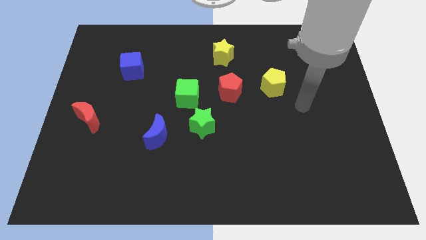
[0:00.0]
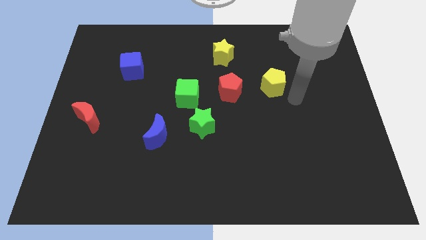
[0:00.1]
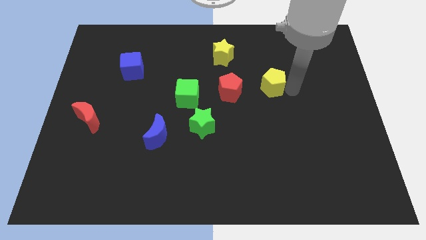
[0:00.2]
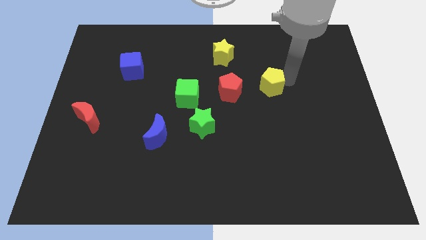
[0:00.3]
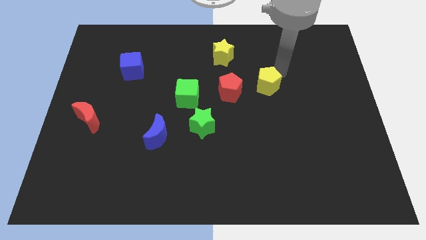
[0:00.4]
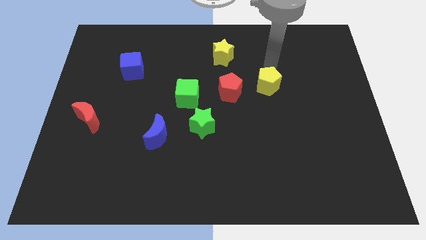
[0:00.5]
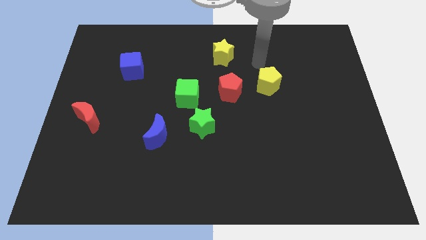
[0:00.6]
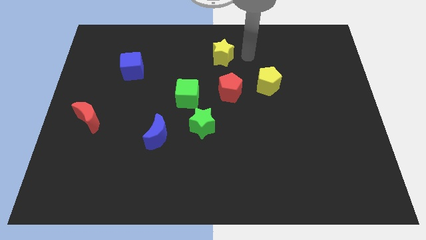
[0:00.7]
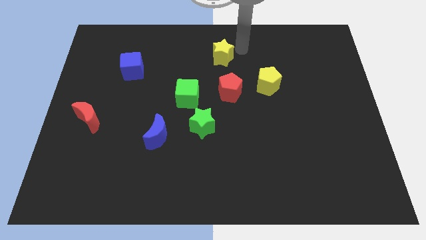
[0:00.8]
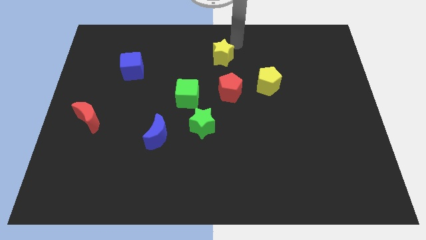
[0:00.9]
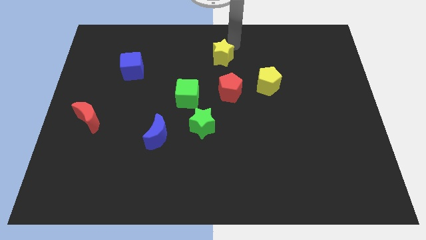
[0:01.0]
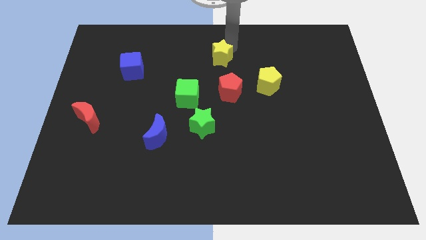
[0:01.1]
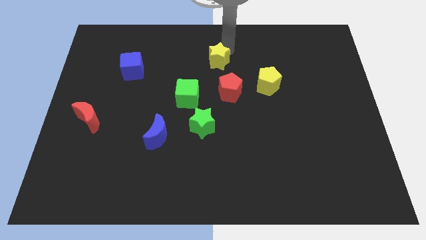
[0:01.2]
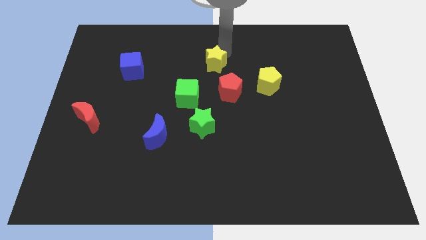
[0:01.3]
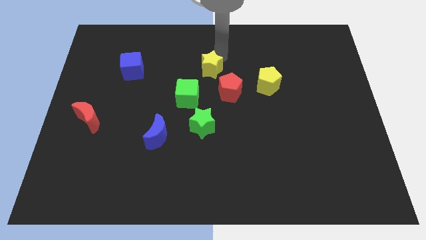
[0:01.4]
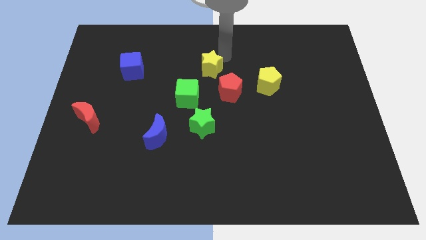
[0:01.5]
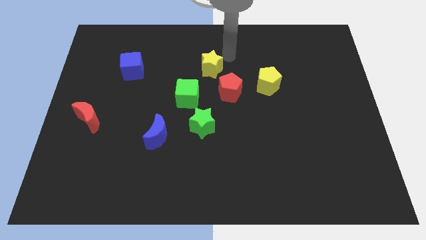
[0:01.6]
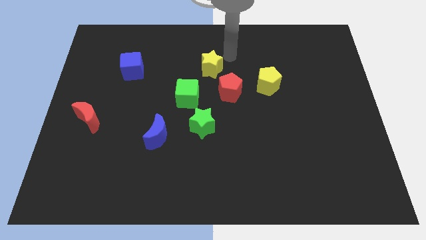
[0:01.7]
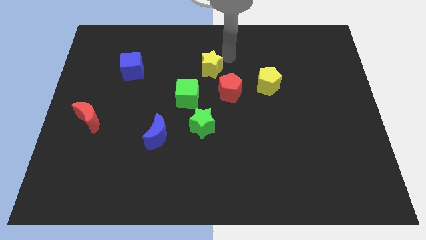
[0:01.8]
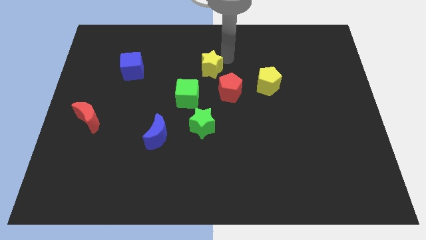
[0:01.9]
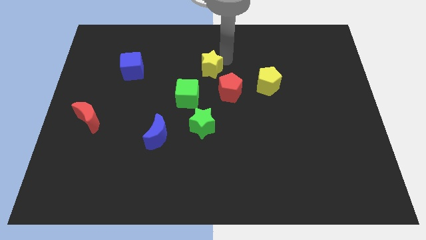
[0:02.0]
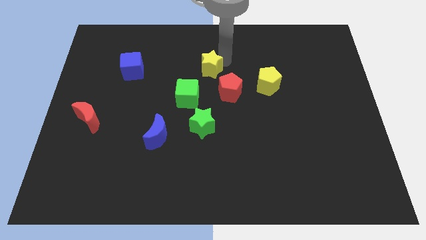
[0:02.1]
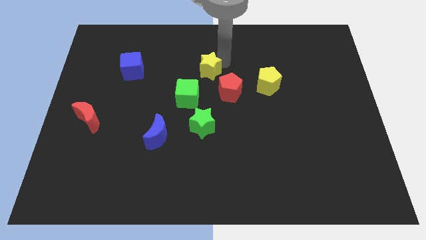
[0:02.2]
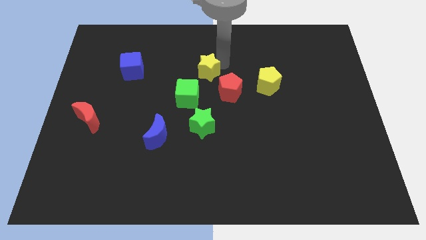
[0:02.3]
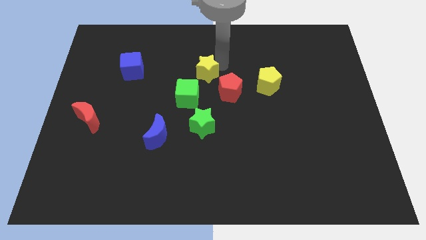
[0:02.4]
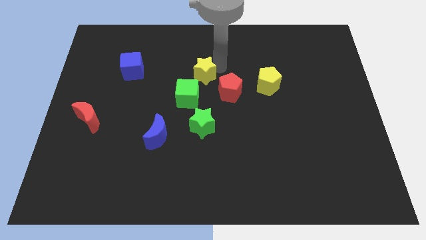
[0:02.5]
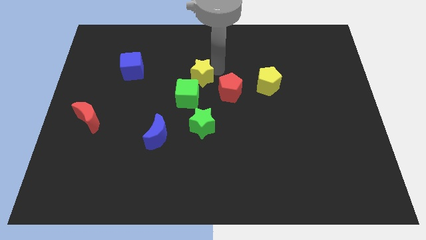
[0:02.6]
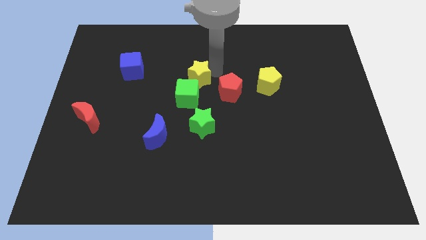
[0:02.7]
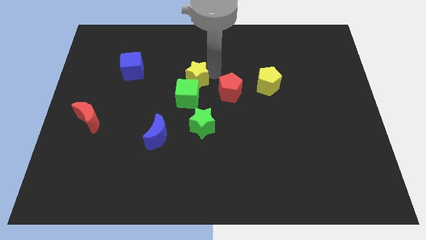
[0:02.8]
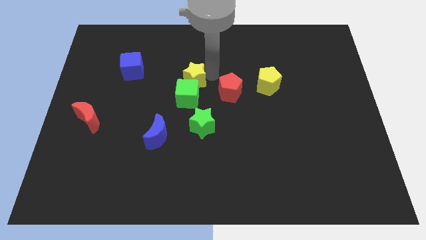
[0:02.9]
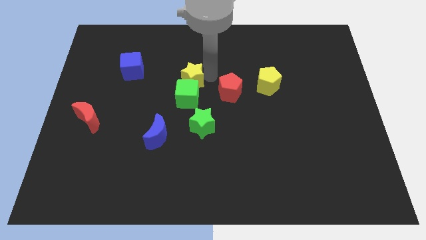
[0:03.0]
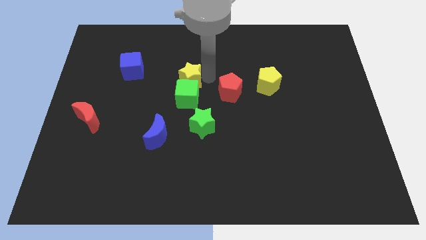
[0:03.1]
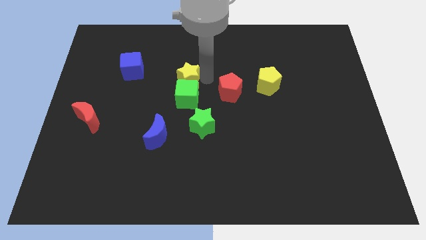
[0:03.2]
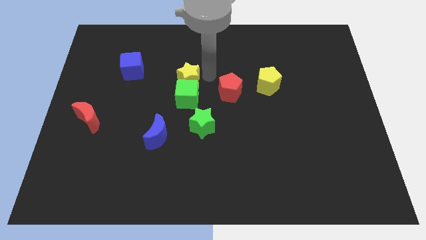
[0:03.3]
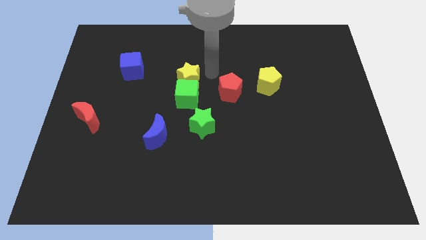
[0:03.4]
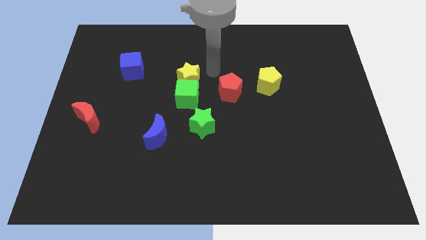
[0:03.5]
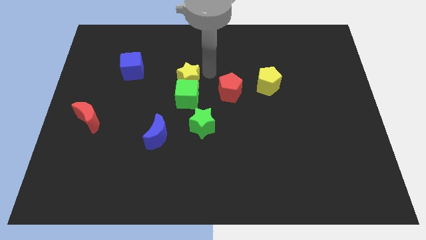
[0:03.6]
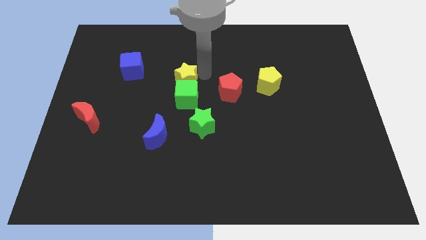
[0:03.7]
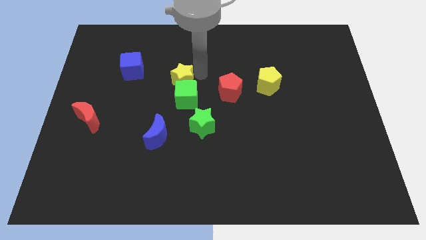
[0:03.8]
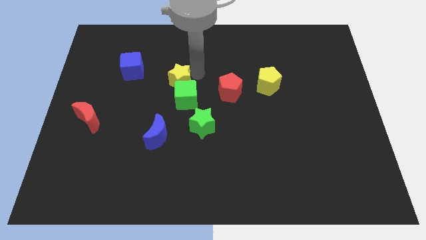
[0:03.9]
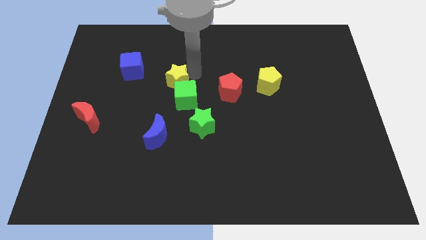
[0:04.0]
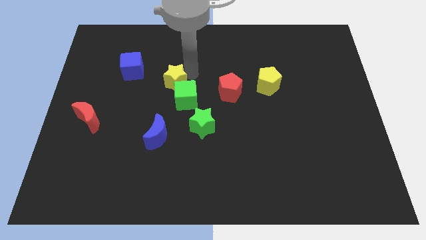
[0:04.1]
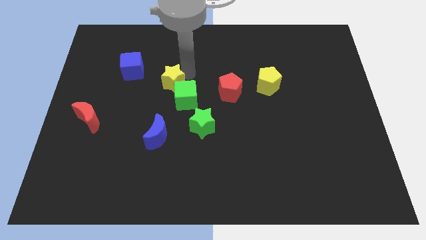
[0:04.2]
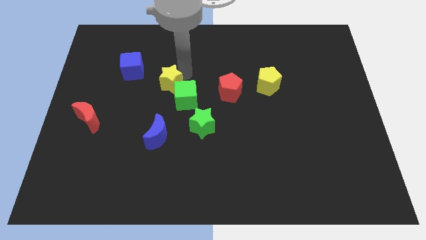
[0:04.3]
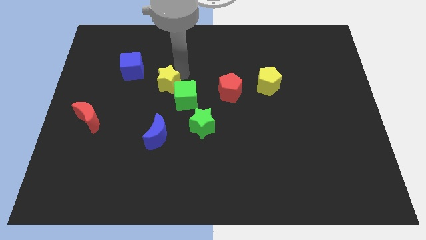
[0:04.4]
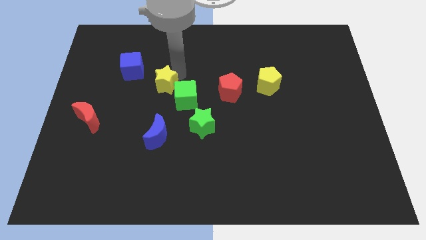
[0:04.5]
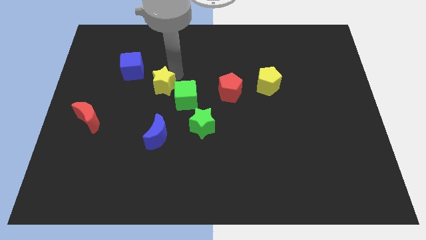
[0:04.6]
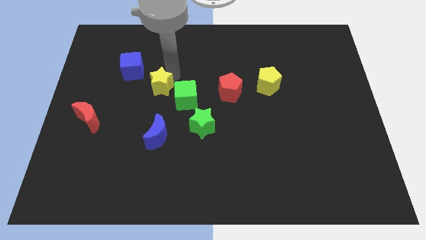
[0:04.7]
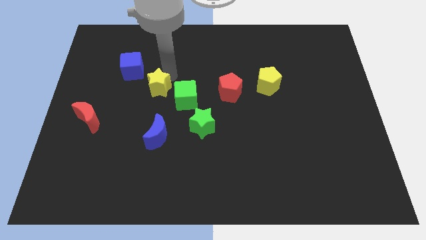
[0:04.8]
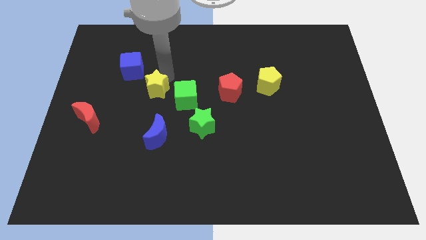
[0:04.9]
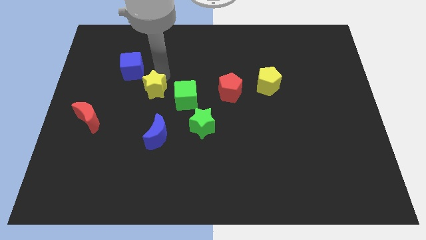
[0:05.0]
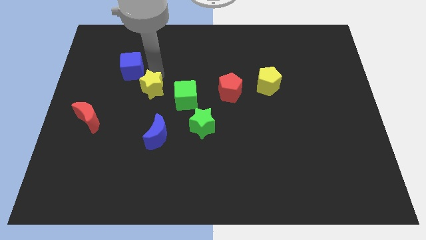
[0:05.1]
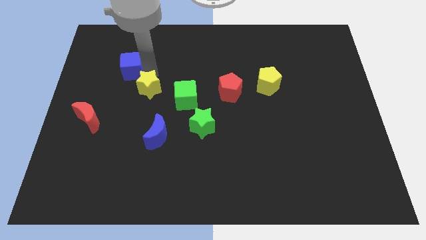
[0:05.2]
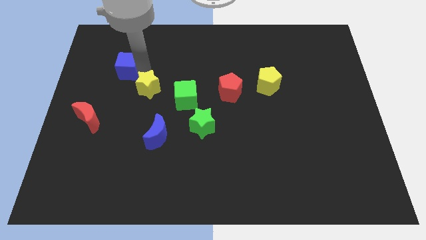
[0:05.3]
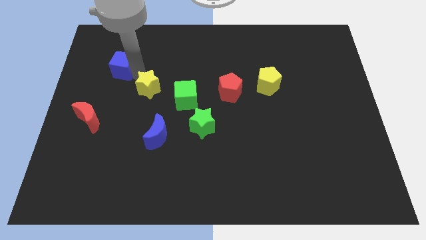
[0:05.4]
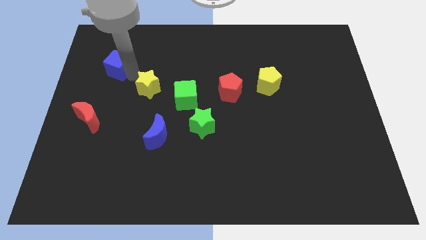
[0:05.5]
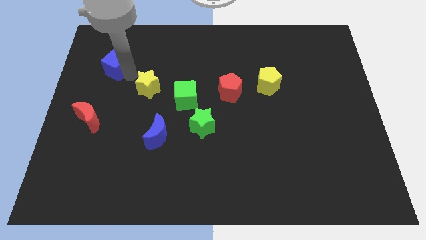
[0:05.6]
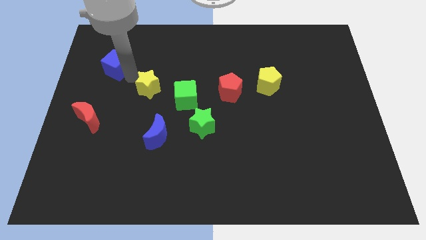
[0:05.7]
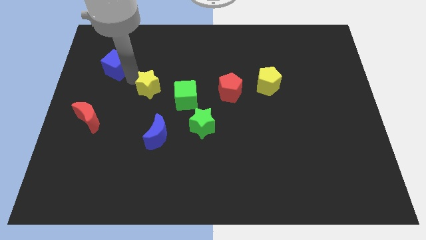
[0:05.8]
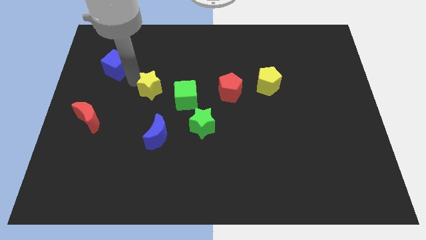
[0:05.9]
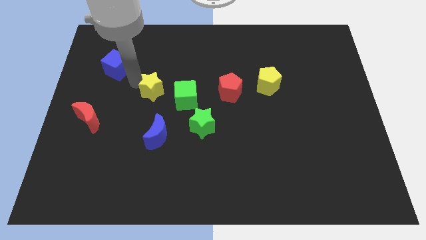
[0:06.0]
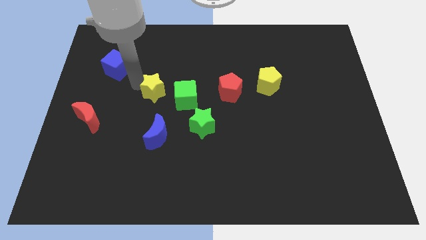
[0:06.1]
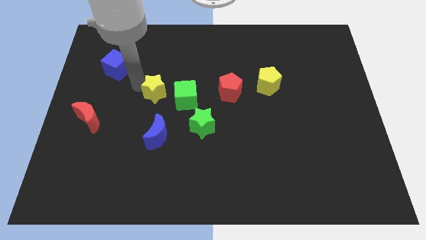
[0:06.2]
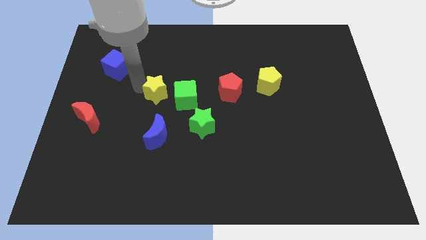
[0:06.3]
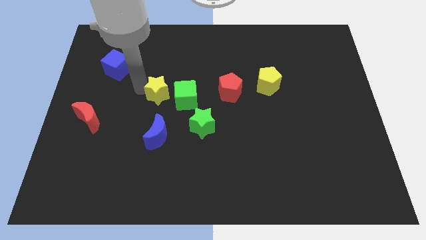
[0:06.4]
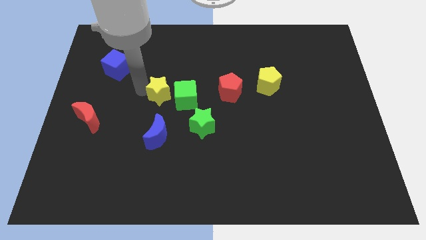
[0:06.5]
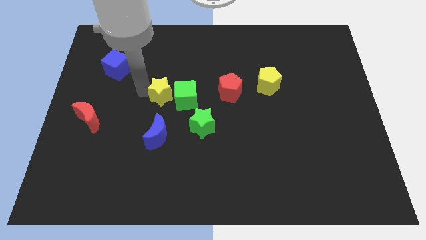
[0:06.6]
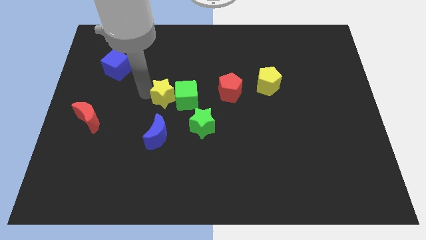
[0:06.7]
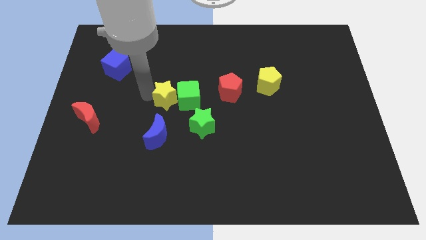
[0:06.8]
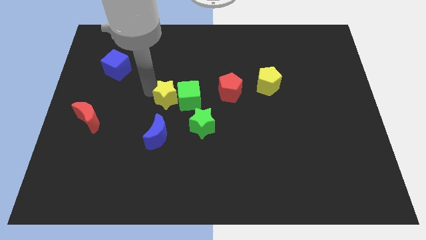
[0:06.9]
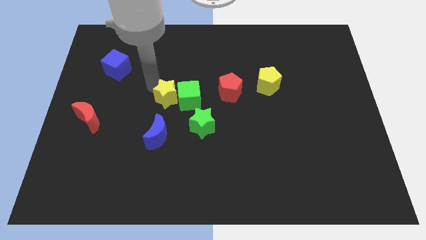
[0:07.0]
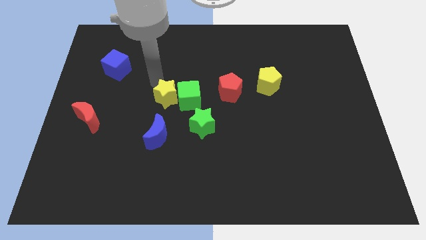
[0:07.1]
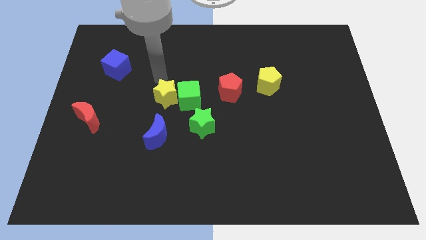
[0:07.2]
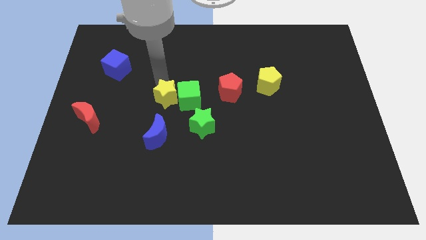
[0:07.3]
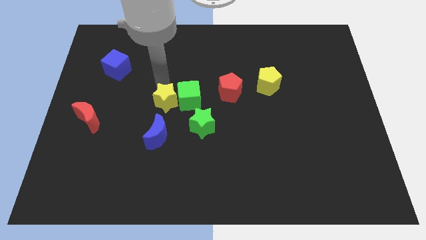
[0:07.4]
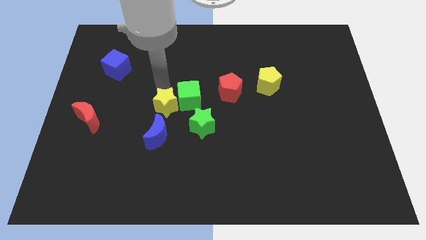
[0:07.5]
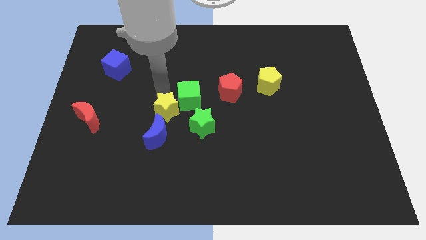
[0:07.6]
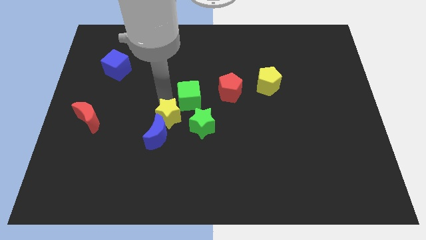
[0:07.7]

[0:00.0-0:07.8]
move the yellow star next to the blue moon
